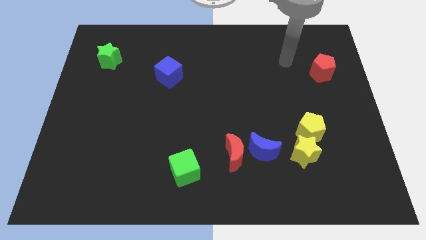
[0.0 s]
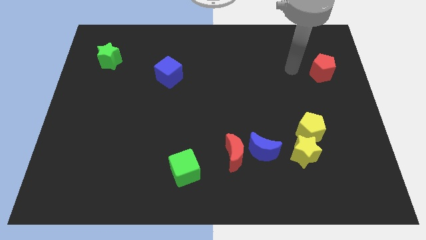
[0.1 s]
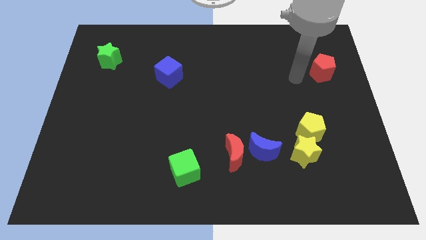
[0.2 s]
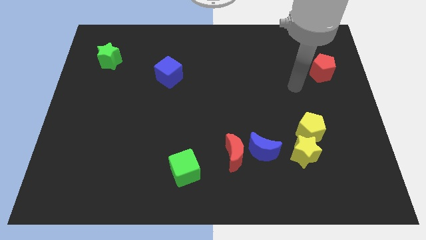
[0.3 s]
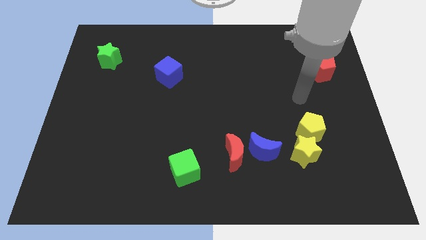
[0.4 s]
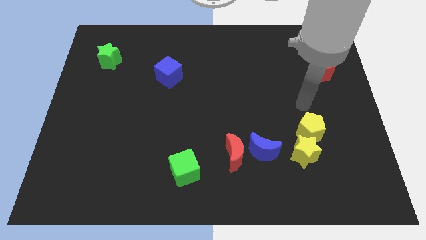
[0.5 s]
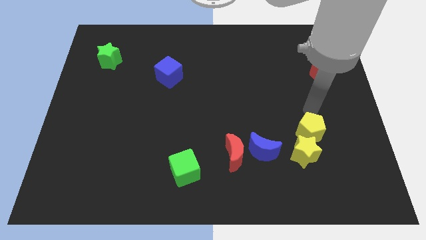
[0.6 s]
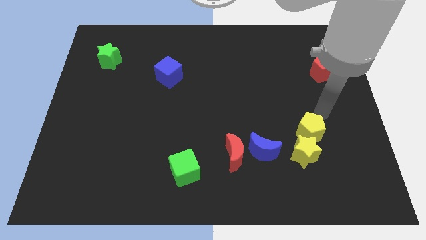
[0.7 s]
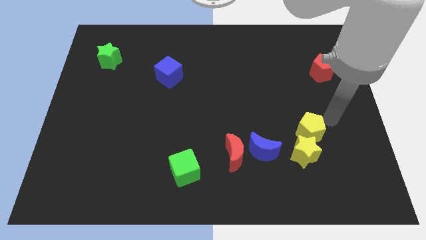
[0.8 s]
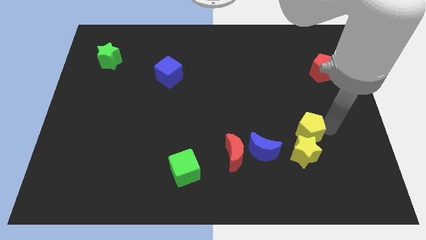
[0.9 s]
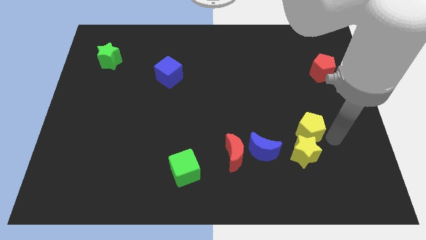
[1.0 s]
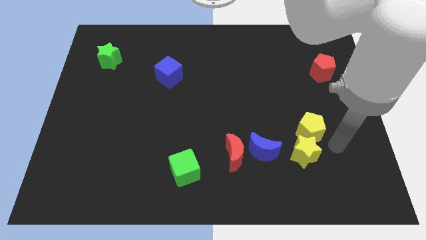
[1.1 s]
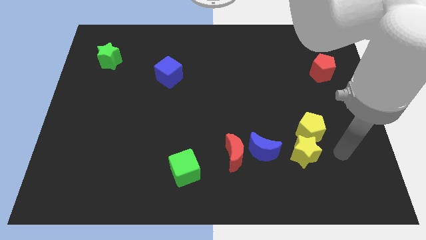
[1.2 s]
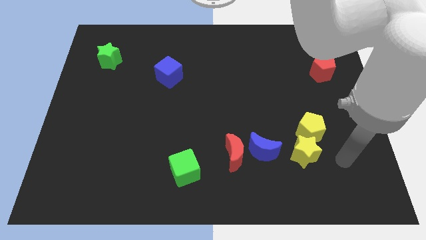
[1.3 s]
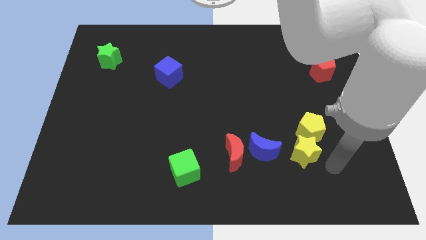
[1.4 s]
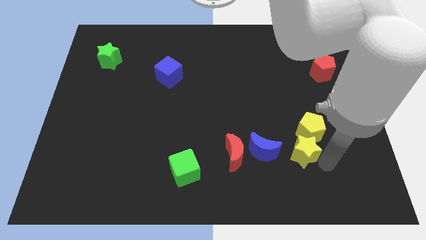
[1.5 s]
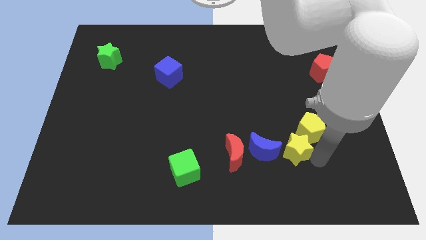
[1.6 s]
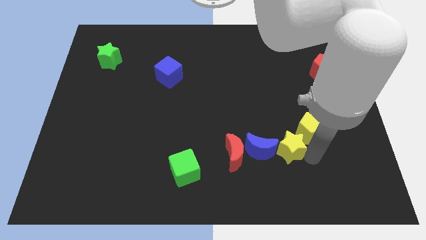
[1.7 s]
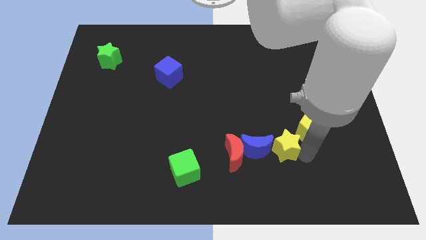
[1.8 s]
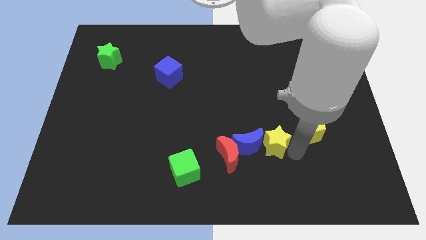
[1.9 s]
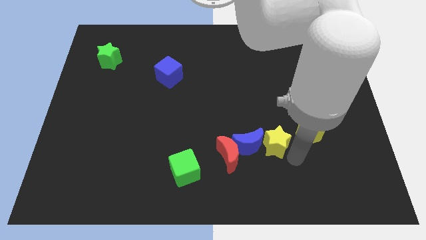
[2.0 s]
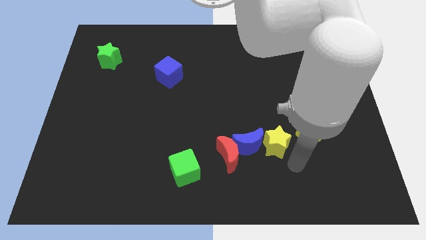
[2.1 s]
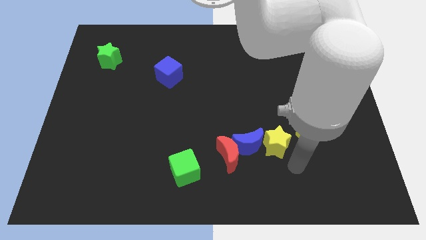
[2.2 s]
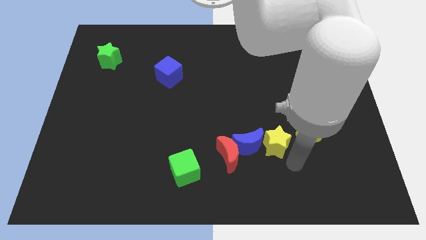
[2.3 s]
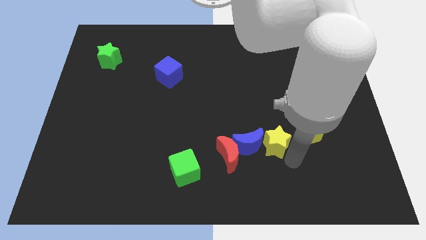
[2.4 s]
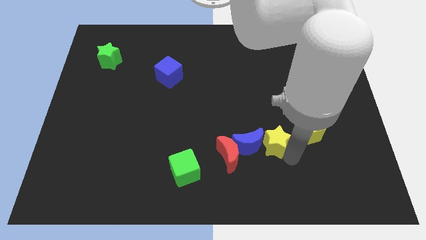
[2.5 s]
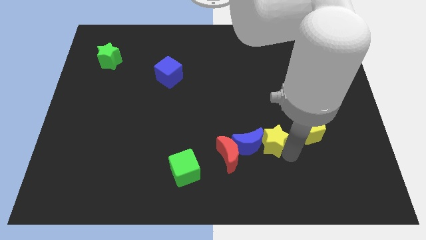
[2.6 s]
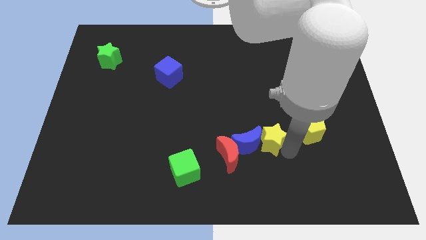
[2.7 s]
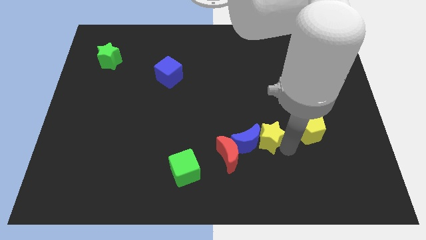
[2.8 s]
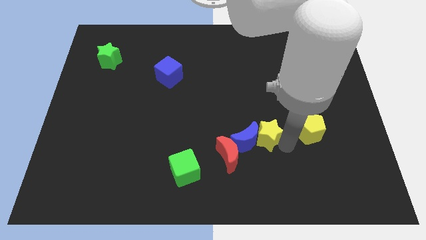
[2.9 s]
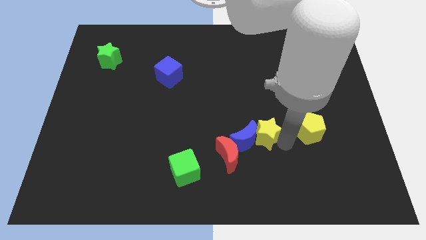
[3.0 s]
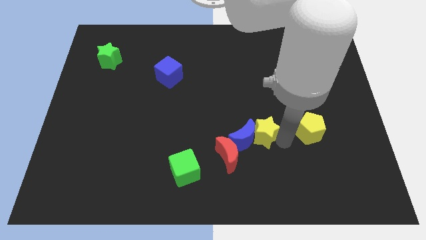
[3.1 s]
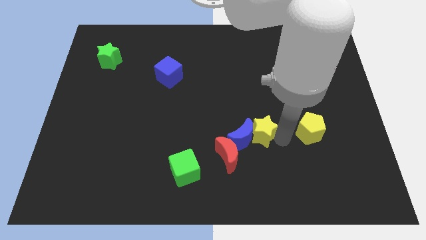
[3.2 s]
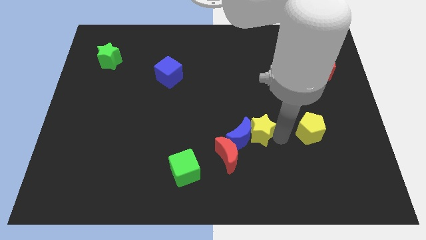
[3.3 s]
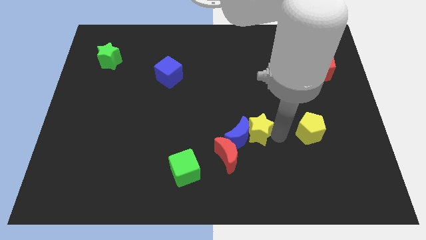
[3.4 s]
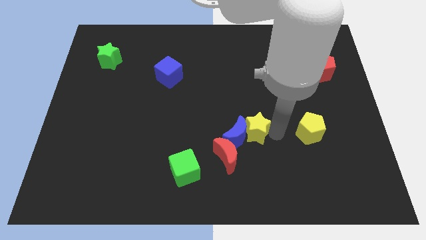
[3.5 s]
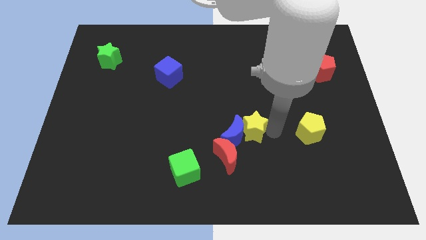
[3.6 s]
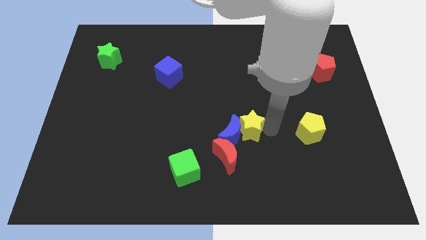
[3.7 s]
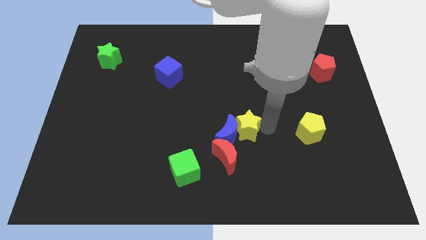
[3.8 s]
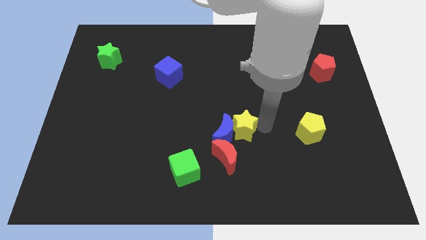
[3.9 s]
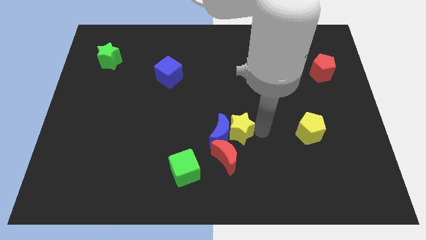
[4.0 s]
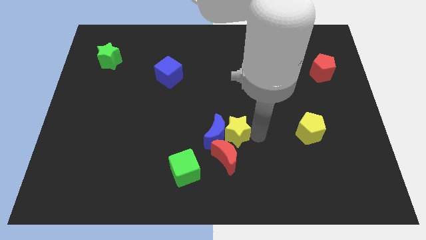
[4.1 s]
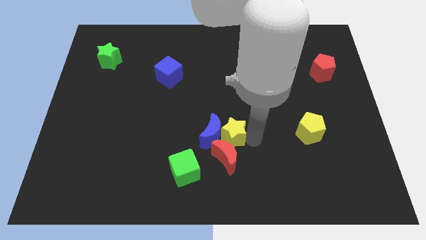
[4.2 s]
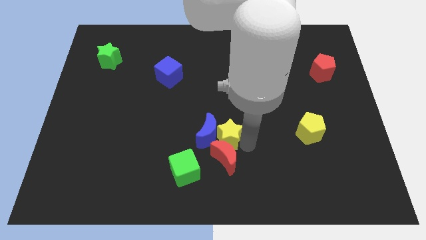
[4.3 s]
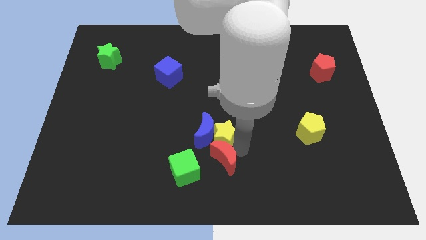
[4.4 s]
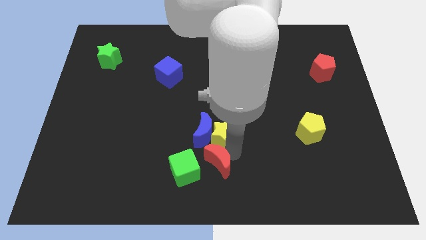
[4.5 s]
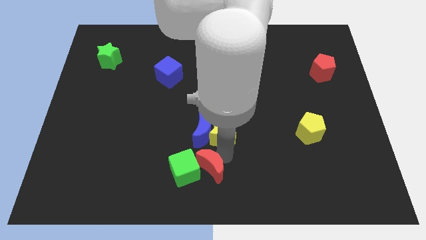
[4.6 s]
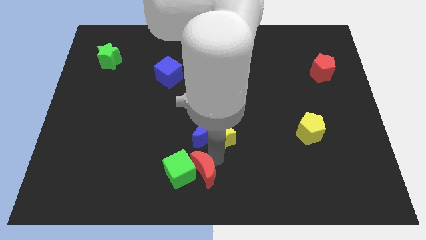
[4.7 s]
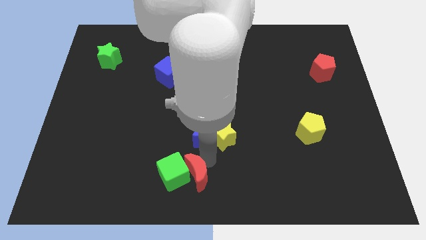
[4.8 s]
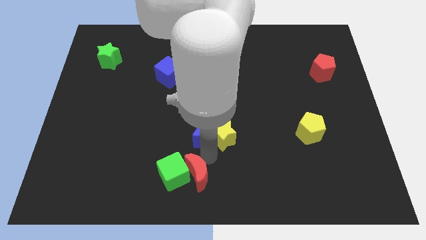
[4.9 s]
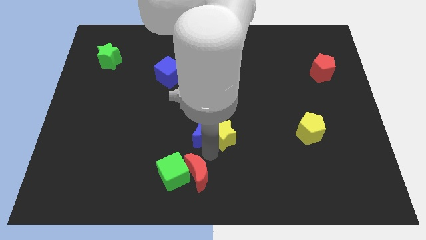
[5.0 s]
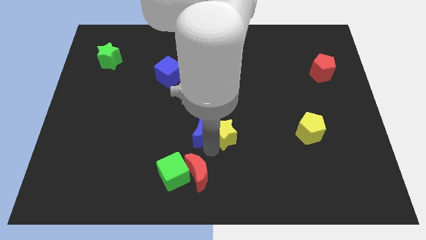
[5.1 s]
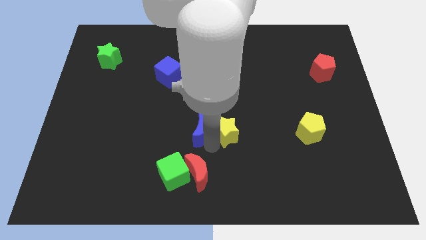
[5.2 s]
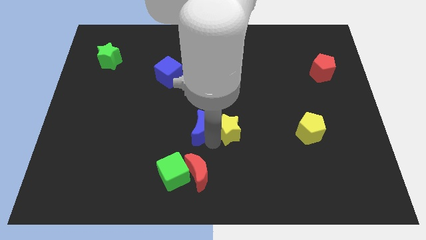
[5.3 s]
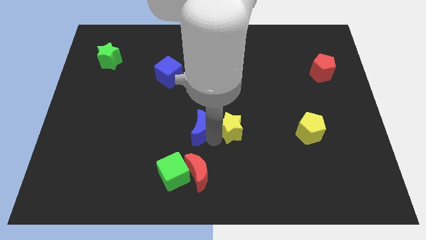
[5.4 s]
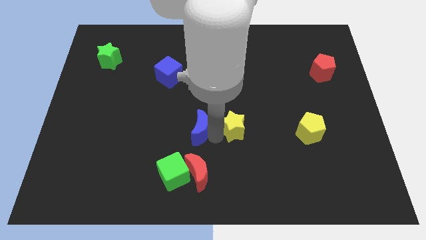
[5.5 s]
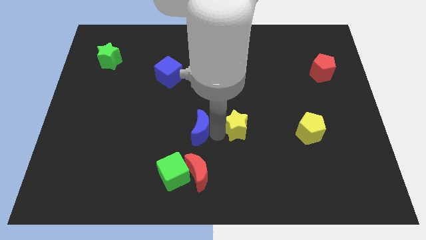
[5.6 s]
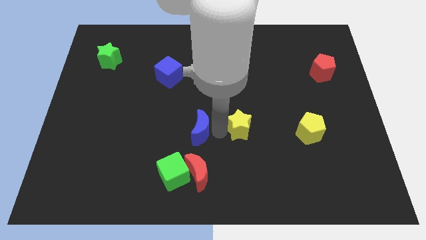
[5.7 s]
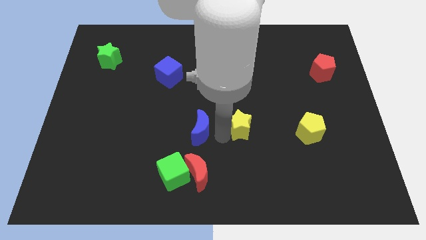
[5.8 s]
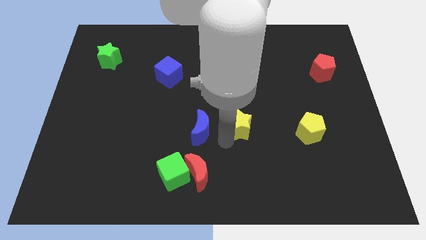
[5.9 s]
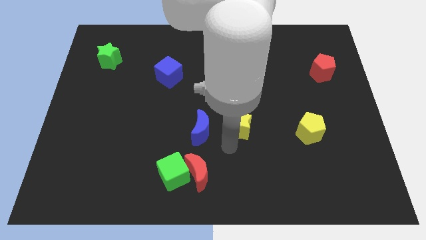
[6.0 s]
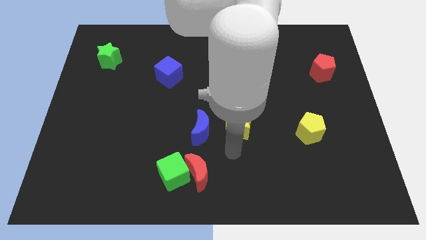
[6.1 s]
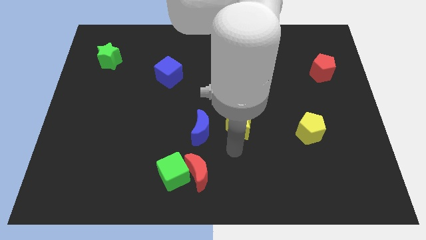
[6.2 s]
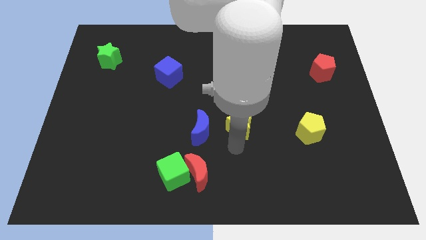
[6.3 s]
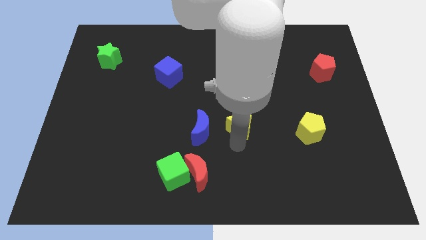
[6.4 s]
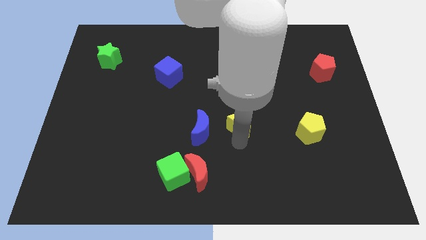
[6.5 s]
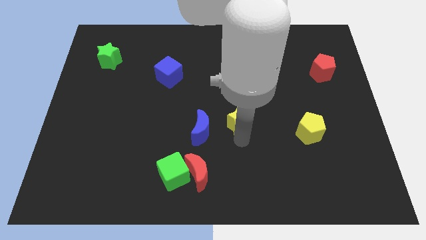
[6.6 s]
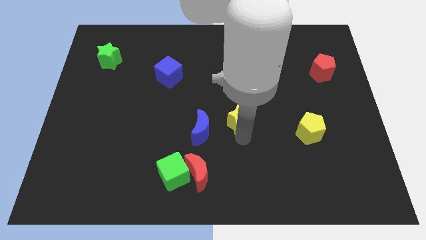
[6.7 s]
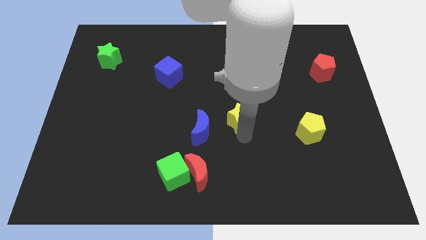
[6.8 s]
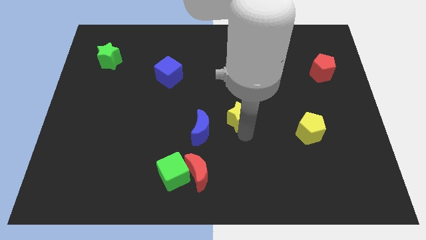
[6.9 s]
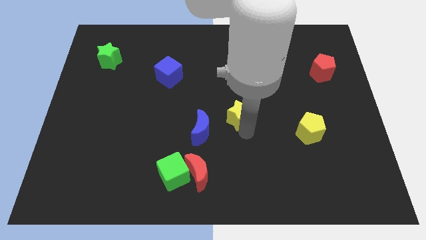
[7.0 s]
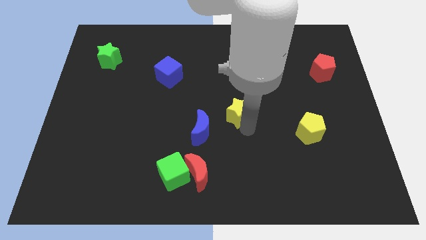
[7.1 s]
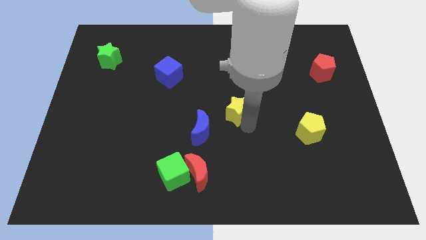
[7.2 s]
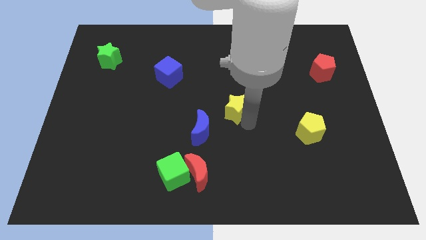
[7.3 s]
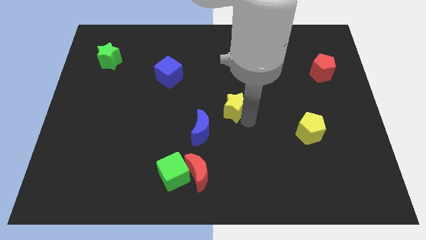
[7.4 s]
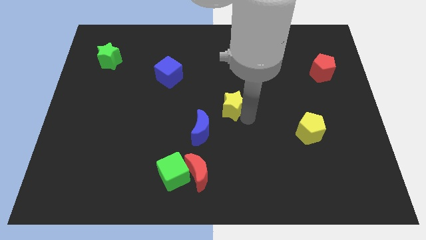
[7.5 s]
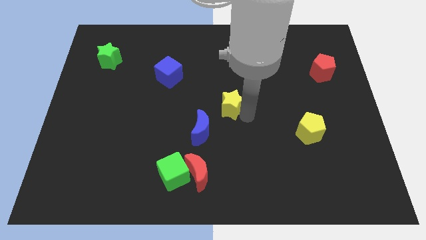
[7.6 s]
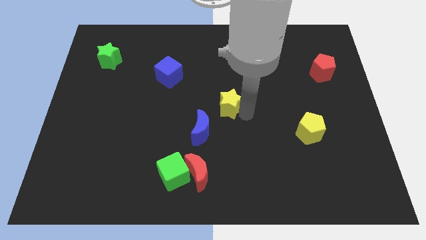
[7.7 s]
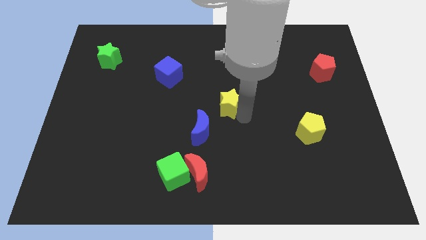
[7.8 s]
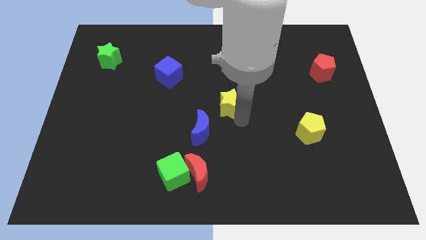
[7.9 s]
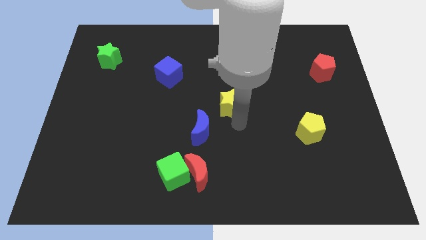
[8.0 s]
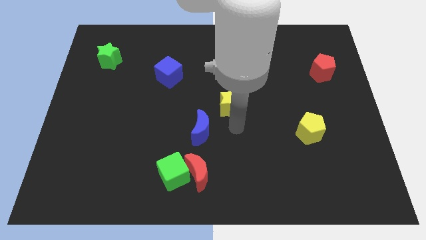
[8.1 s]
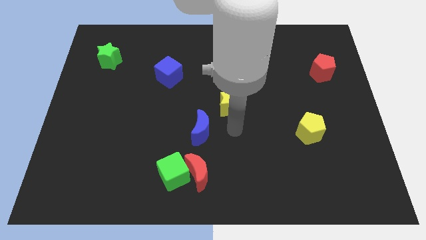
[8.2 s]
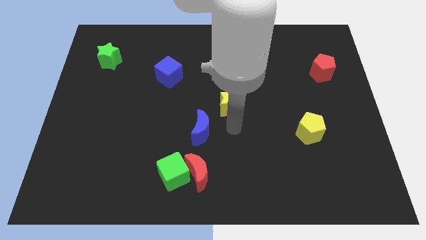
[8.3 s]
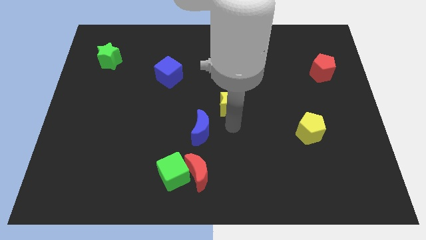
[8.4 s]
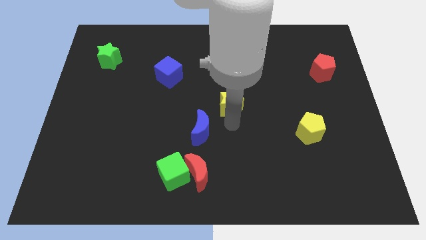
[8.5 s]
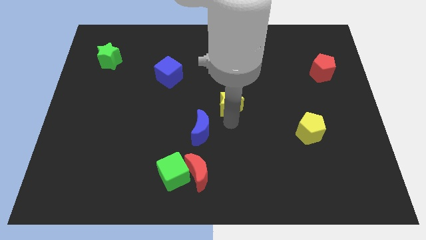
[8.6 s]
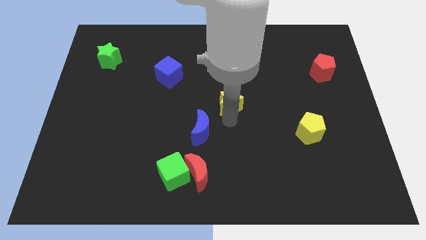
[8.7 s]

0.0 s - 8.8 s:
push the yellow star upwards and left
